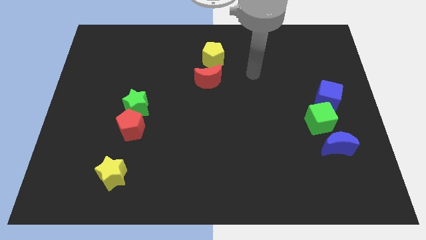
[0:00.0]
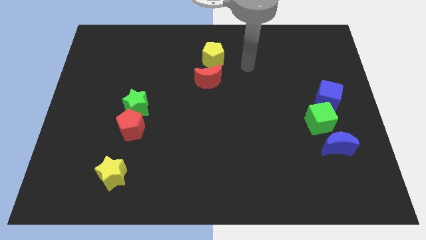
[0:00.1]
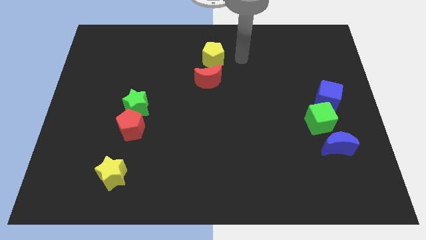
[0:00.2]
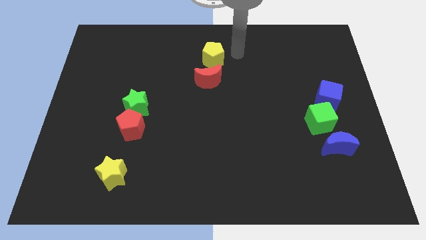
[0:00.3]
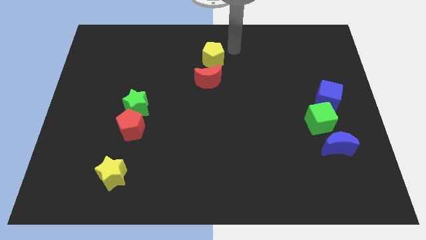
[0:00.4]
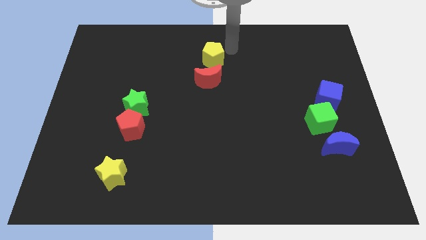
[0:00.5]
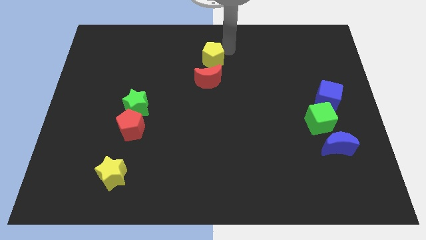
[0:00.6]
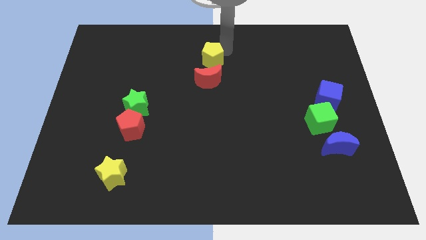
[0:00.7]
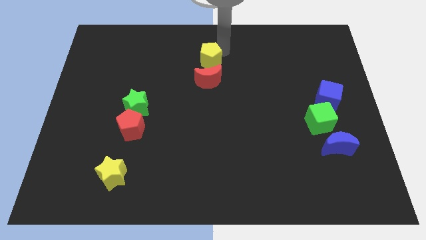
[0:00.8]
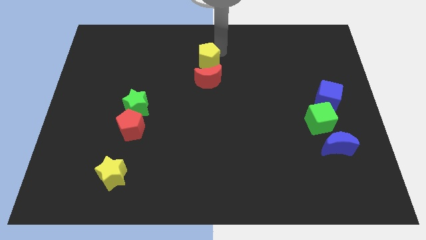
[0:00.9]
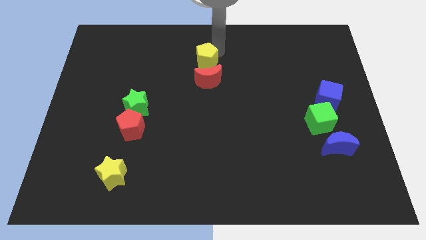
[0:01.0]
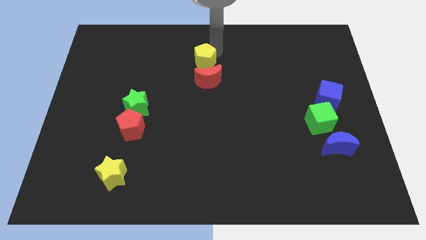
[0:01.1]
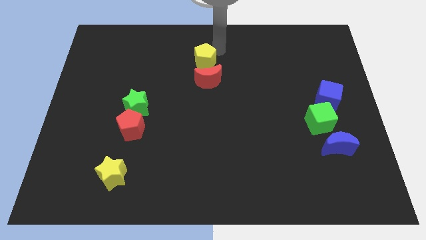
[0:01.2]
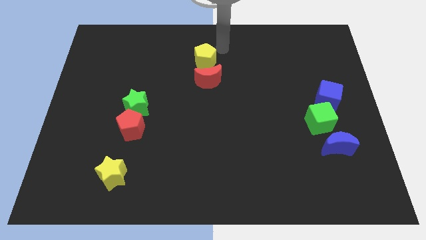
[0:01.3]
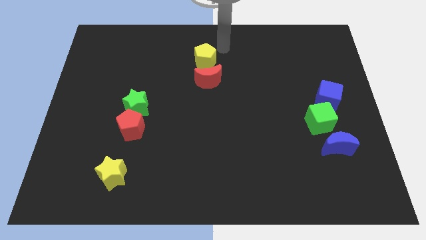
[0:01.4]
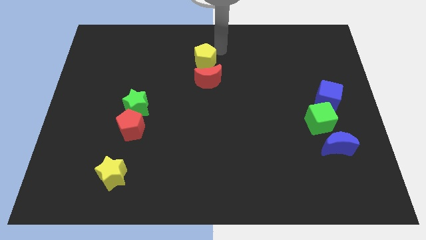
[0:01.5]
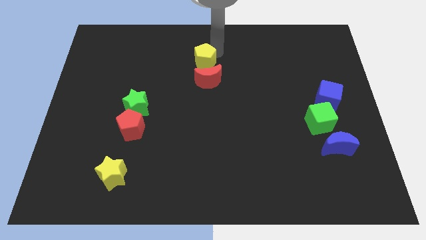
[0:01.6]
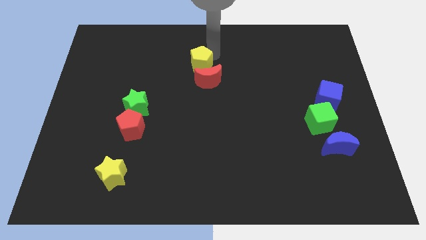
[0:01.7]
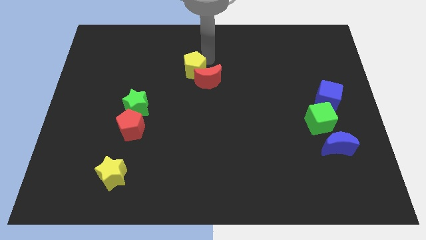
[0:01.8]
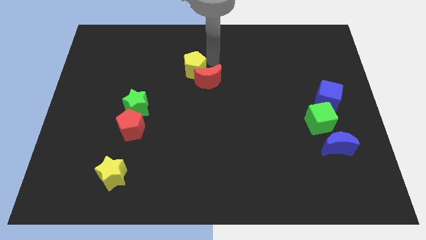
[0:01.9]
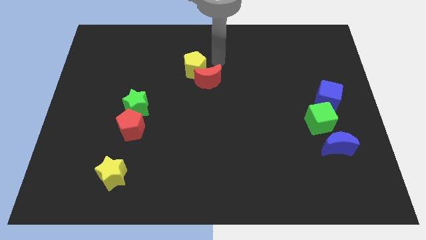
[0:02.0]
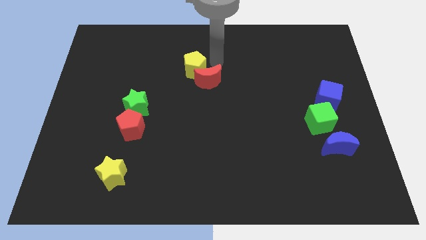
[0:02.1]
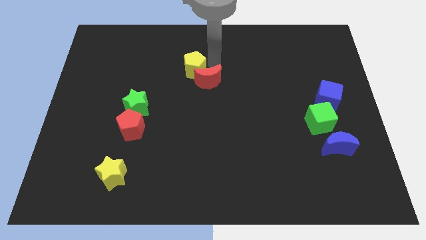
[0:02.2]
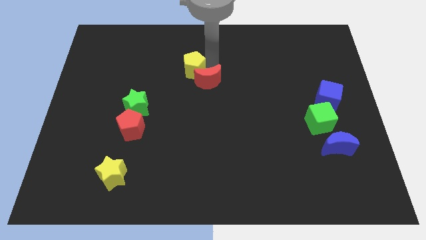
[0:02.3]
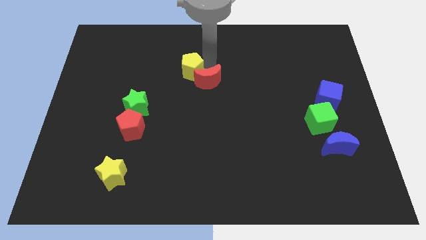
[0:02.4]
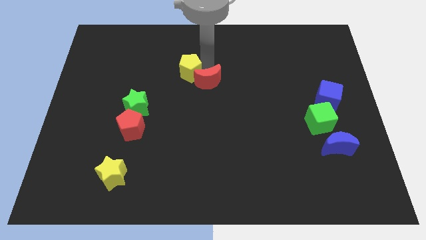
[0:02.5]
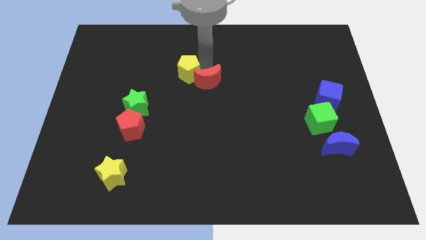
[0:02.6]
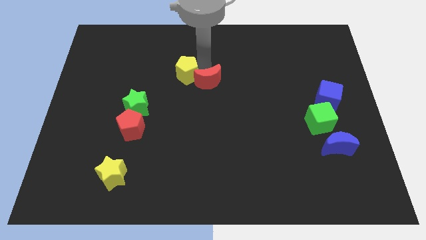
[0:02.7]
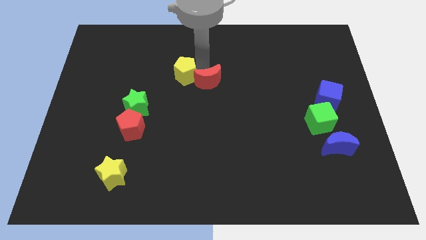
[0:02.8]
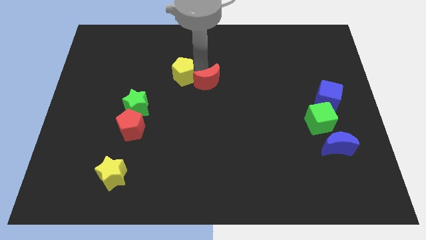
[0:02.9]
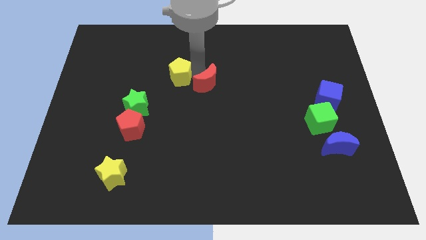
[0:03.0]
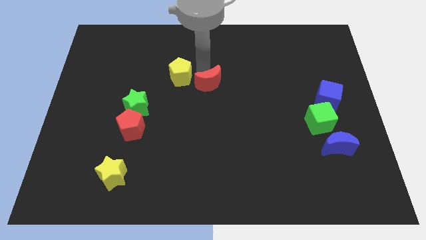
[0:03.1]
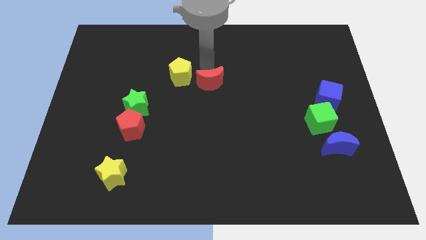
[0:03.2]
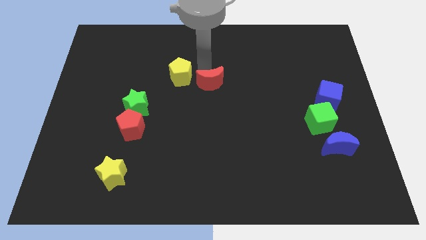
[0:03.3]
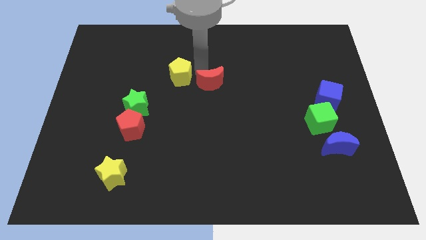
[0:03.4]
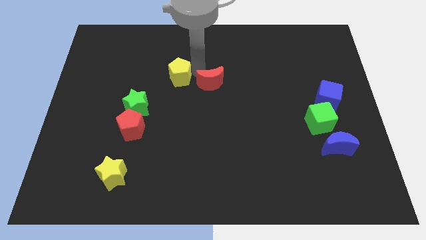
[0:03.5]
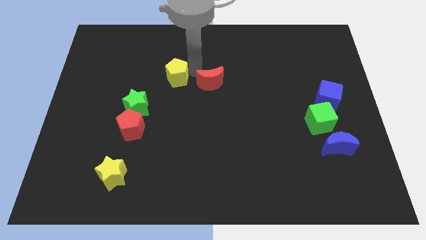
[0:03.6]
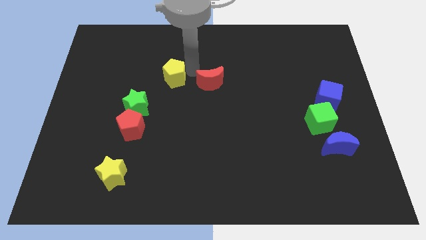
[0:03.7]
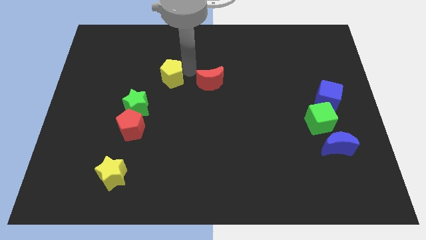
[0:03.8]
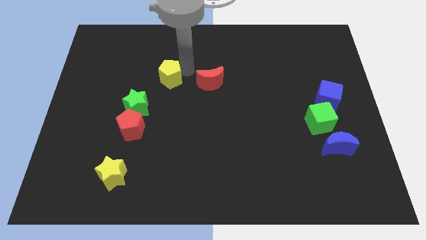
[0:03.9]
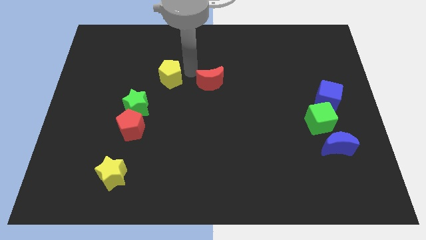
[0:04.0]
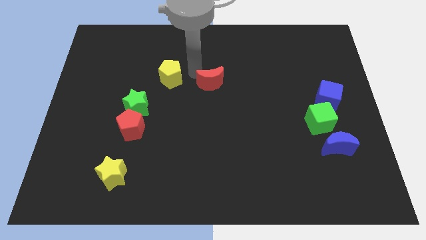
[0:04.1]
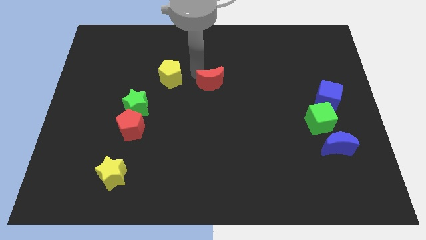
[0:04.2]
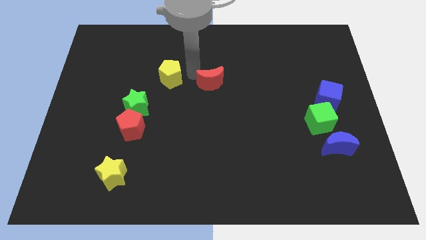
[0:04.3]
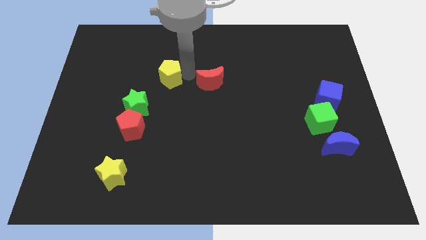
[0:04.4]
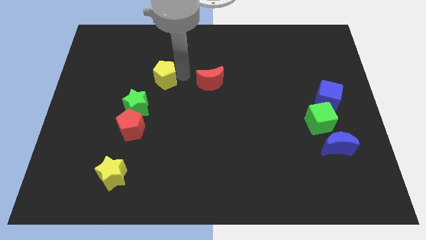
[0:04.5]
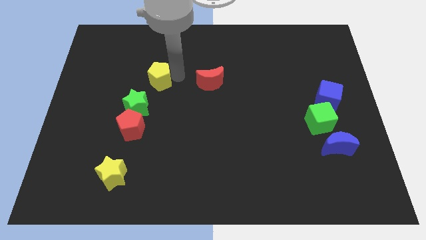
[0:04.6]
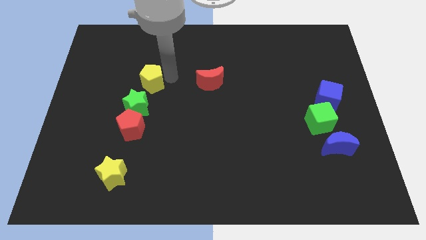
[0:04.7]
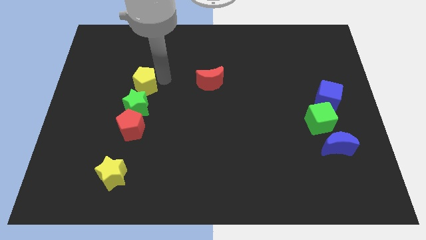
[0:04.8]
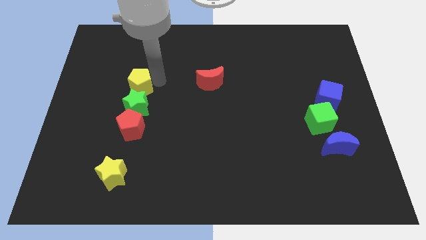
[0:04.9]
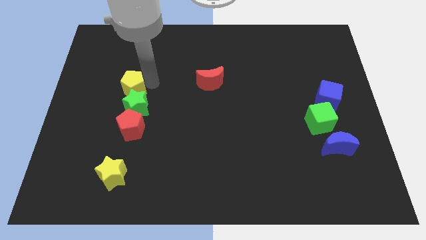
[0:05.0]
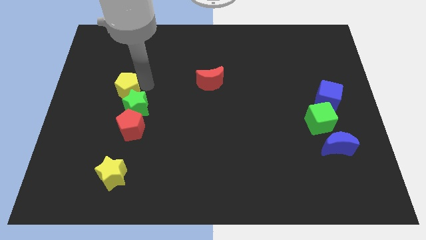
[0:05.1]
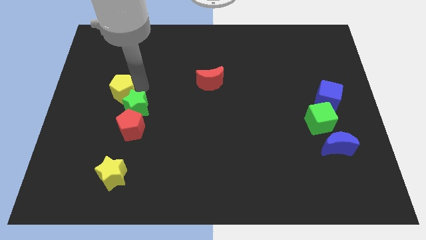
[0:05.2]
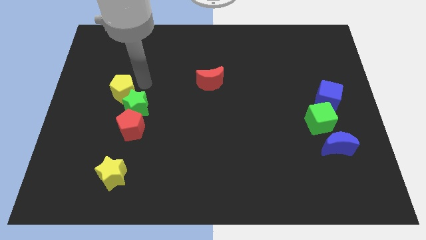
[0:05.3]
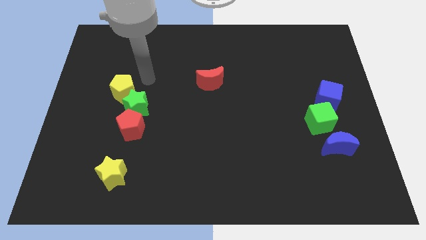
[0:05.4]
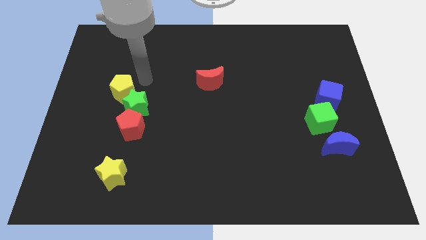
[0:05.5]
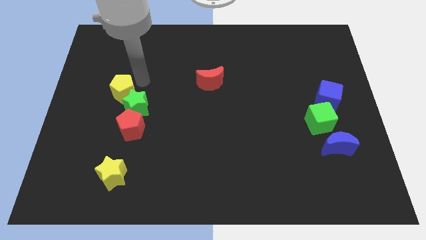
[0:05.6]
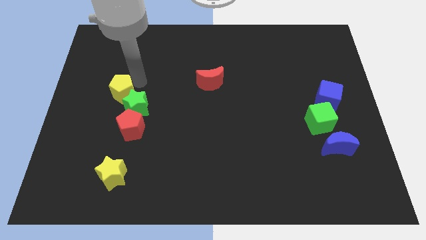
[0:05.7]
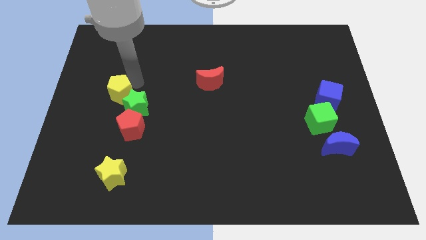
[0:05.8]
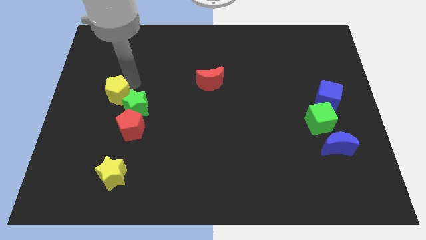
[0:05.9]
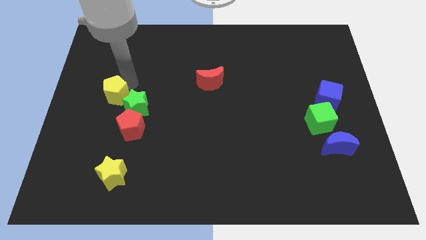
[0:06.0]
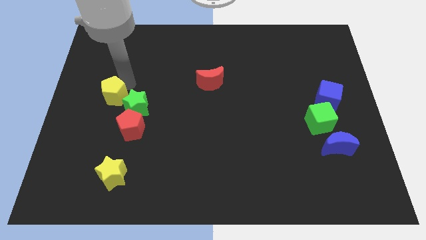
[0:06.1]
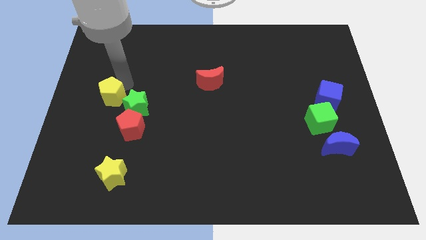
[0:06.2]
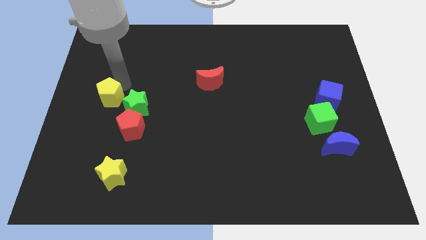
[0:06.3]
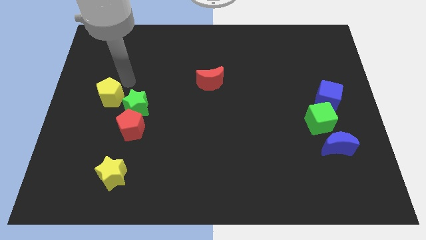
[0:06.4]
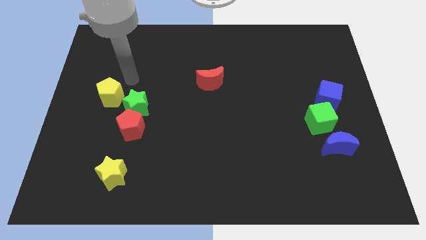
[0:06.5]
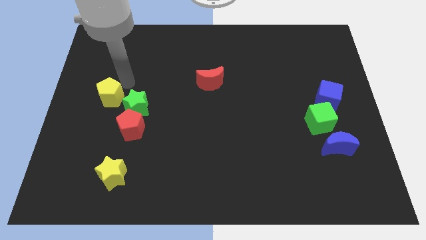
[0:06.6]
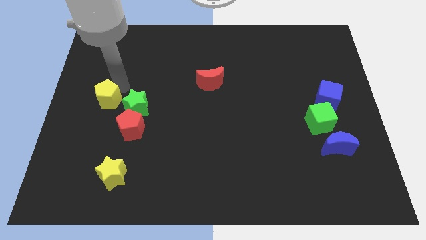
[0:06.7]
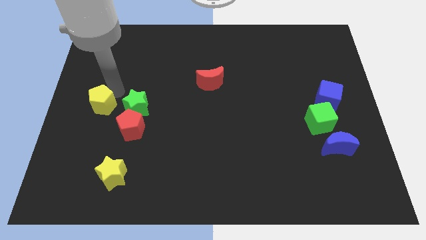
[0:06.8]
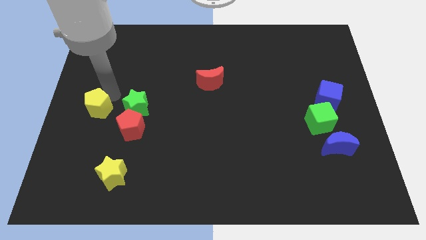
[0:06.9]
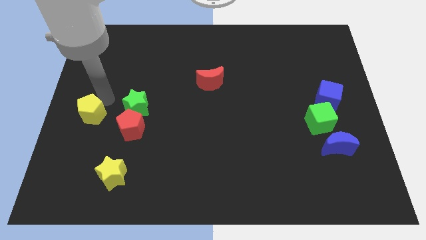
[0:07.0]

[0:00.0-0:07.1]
push the yellow pentagon just left of the red pentagon

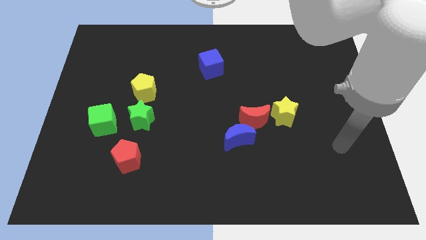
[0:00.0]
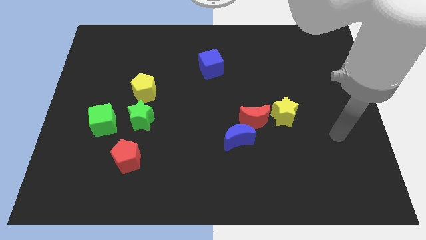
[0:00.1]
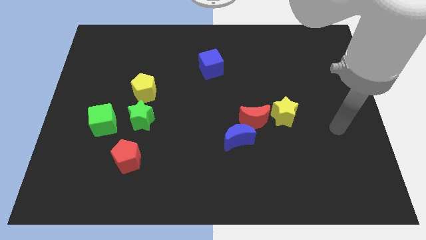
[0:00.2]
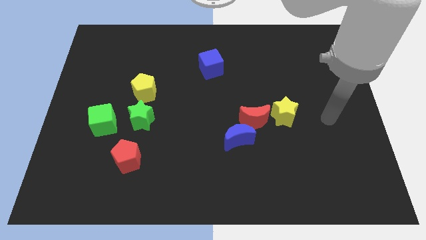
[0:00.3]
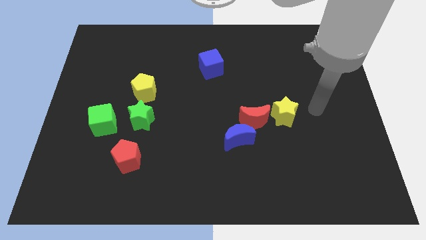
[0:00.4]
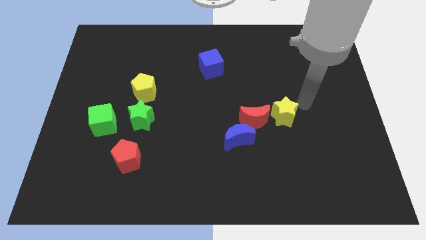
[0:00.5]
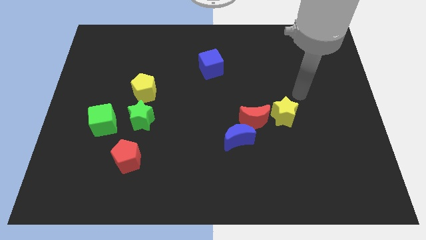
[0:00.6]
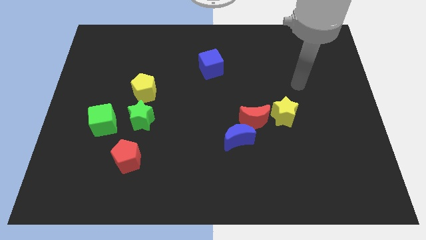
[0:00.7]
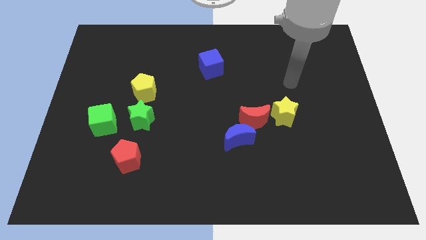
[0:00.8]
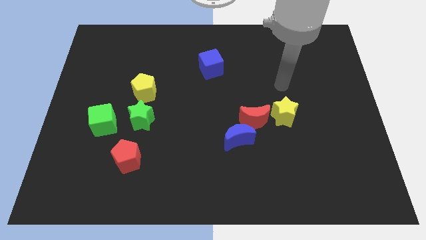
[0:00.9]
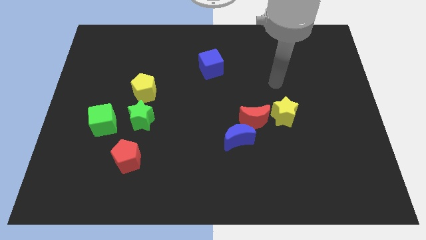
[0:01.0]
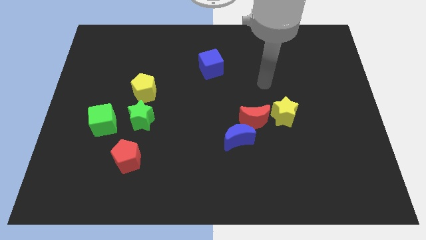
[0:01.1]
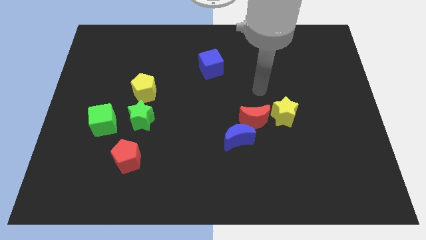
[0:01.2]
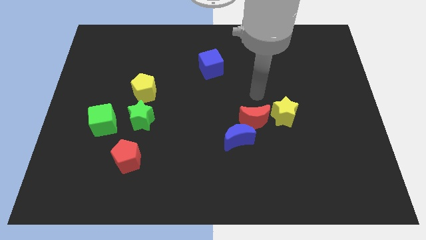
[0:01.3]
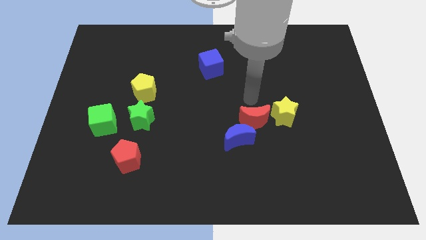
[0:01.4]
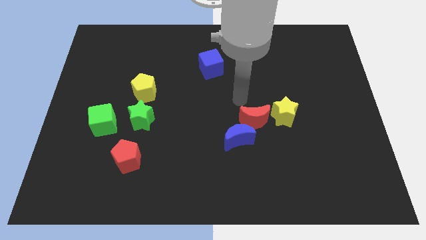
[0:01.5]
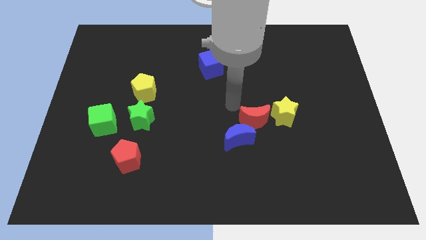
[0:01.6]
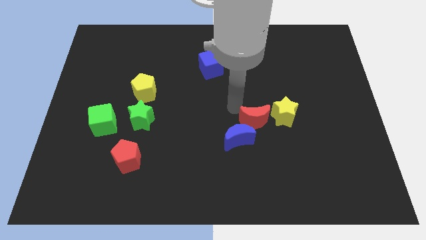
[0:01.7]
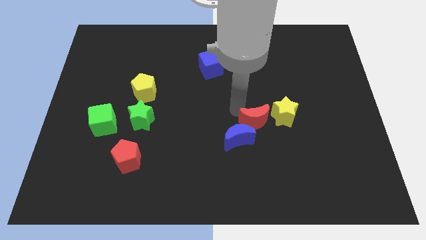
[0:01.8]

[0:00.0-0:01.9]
put the red moon to the right side of the blue moon
